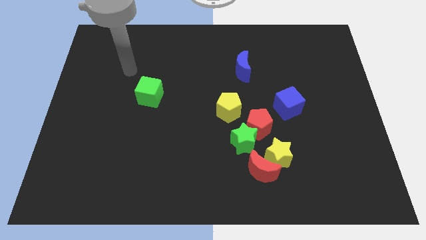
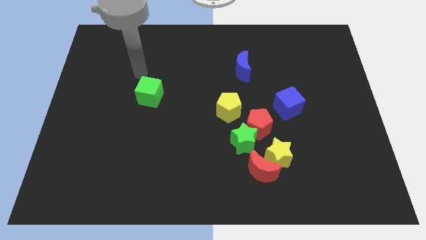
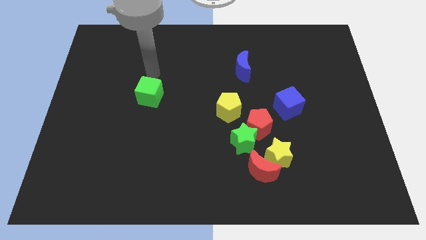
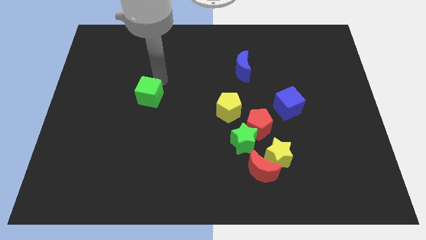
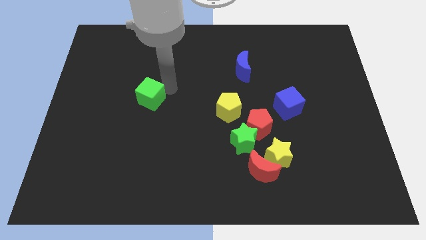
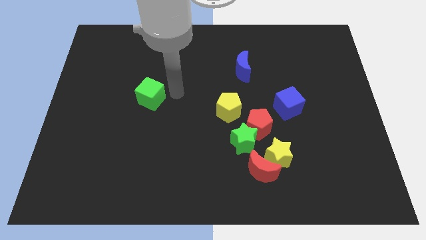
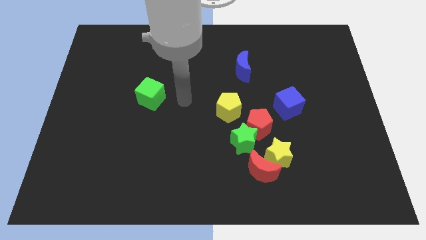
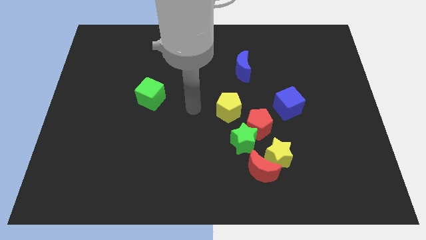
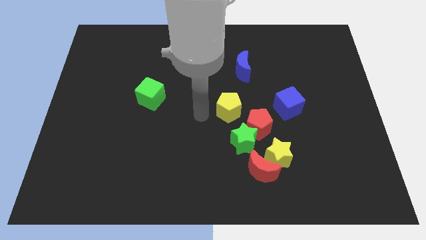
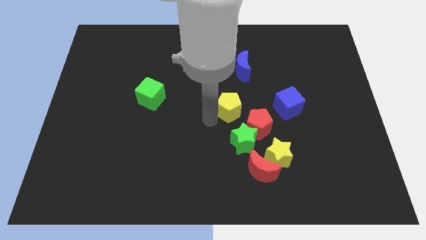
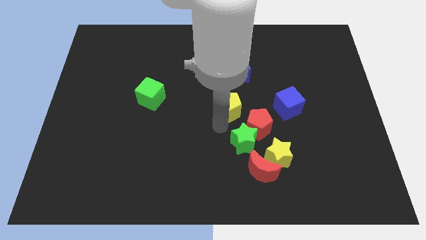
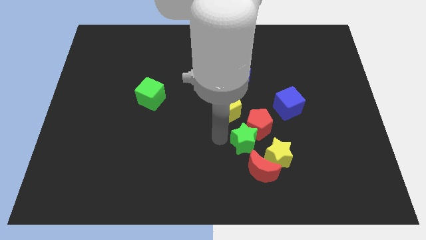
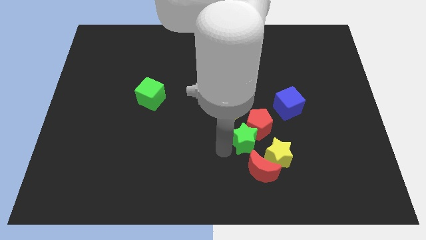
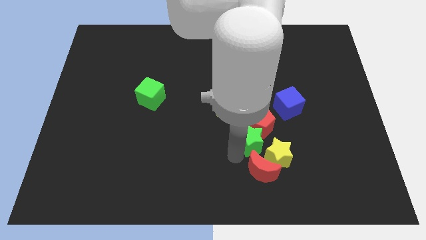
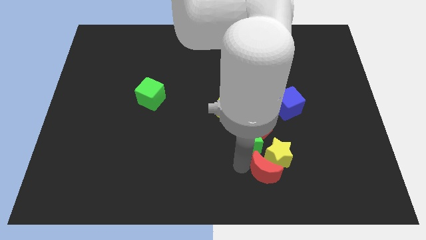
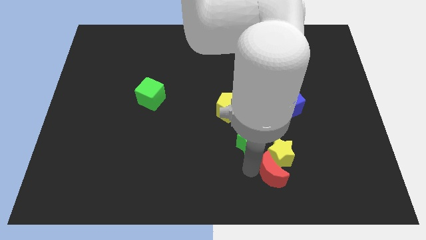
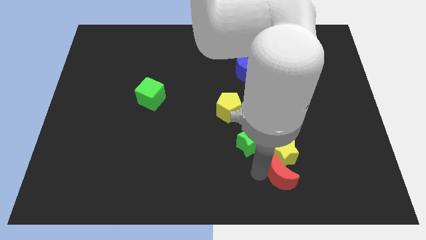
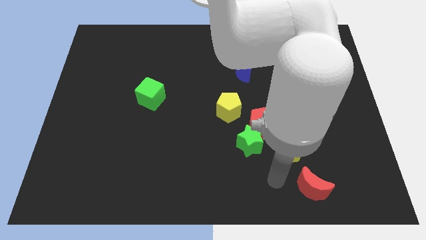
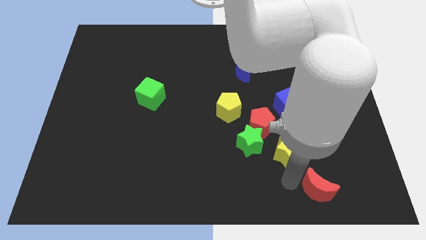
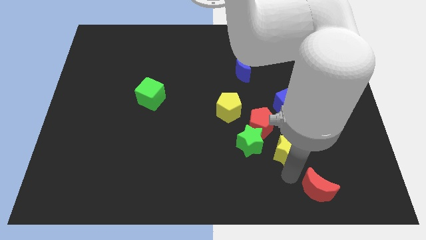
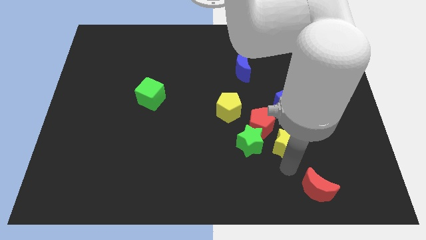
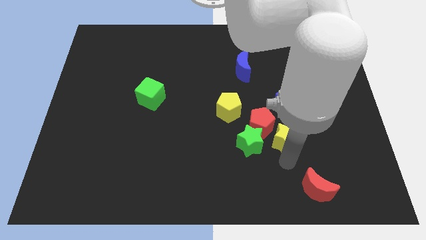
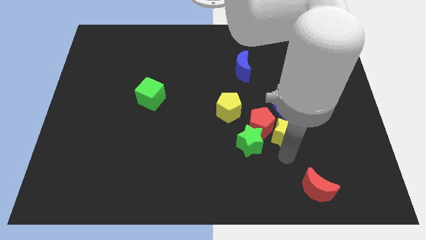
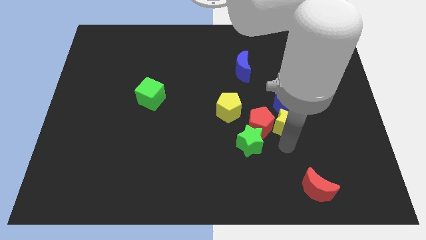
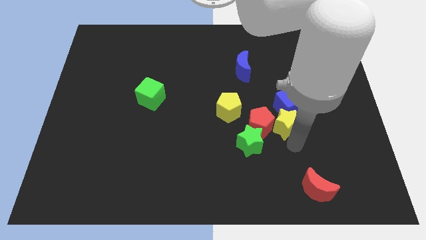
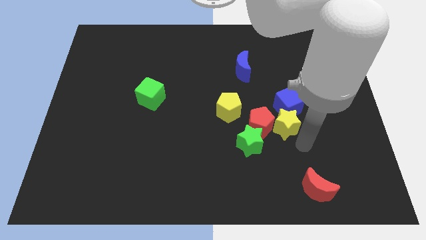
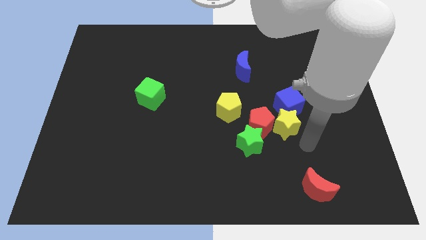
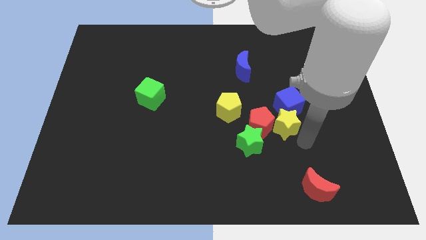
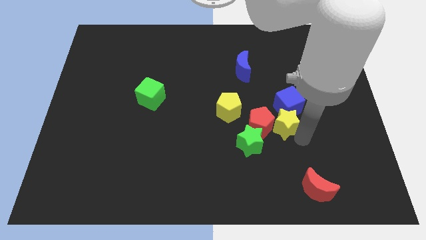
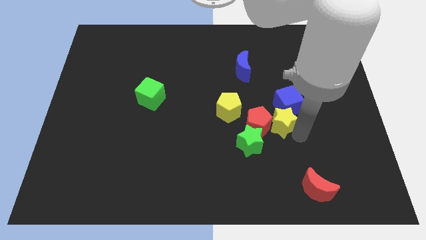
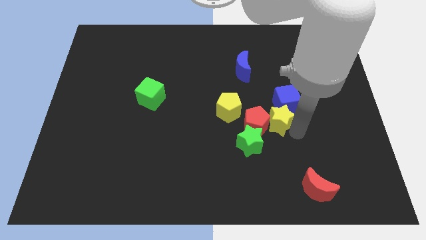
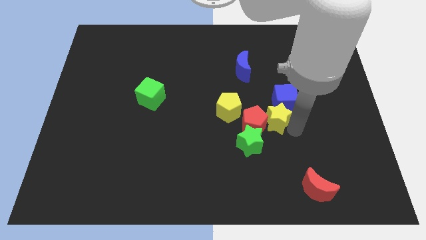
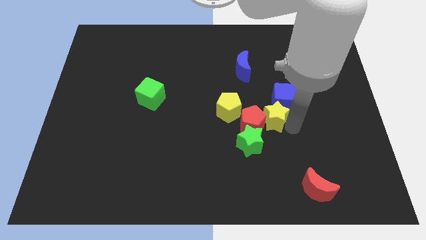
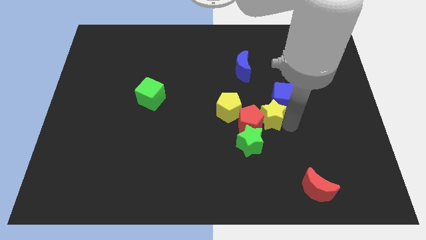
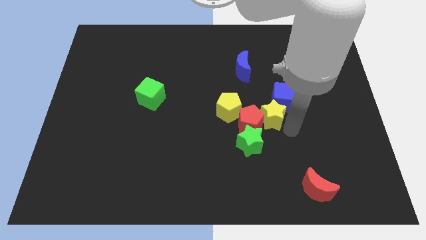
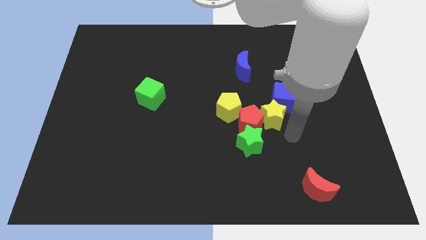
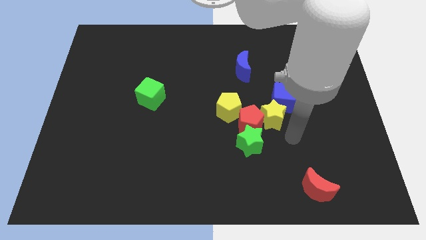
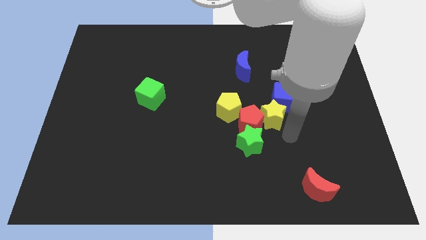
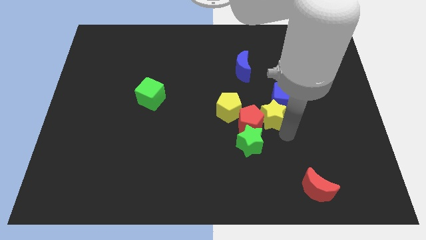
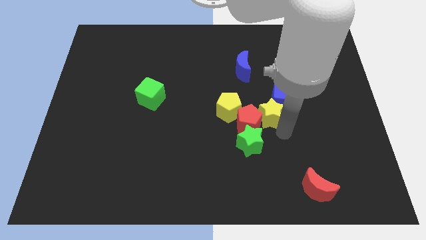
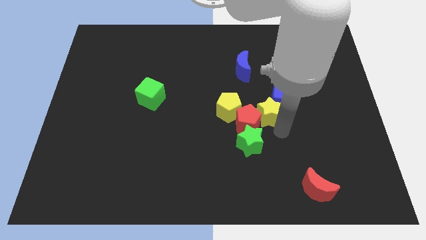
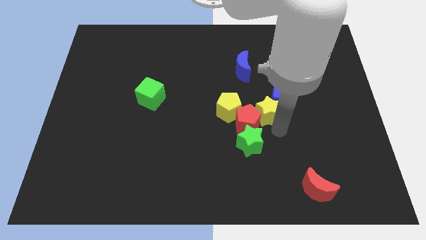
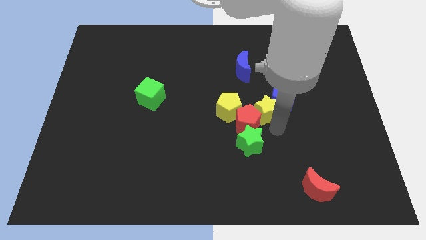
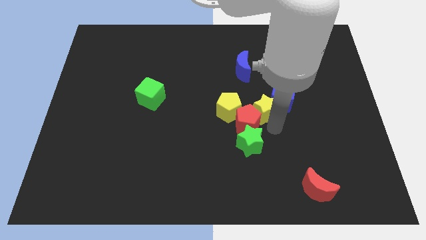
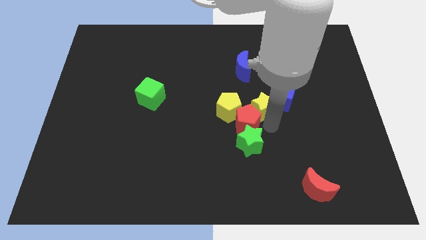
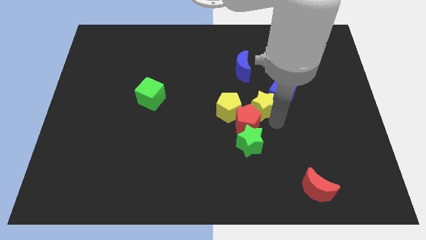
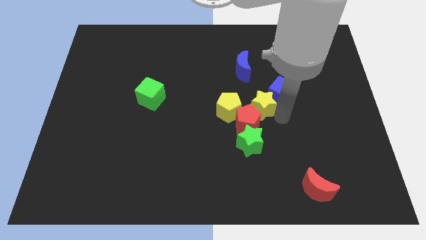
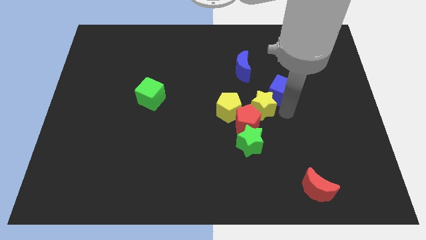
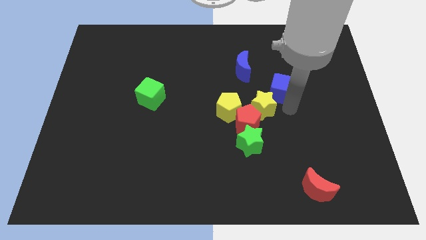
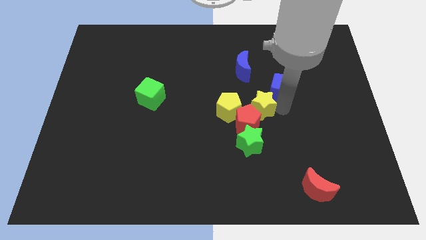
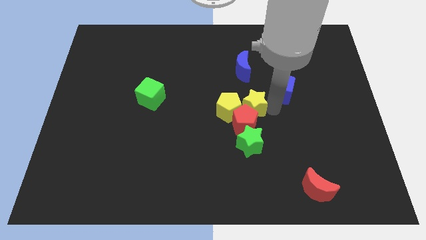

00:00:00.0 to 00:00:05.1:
slide the yellow star close to the yellow pentagon

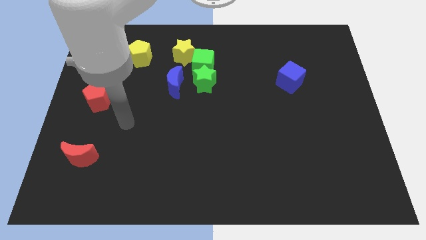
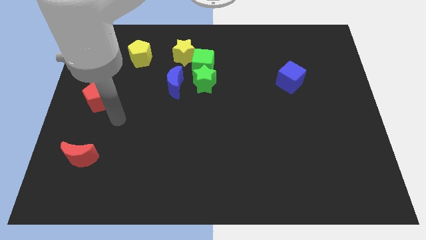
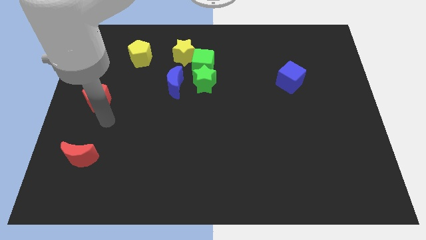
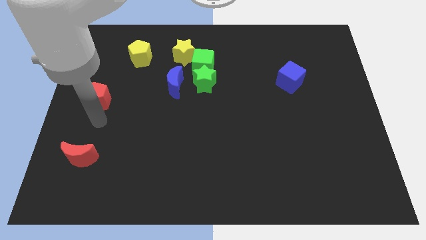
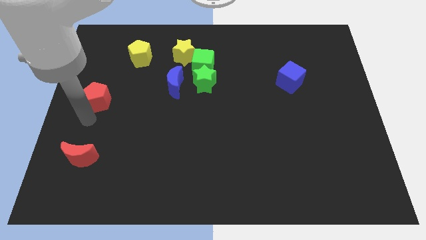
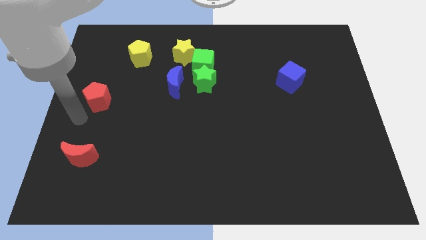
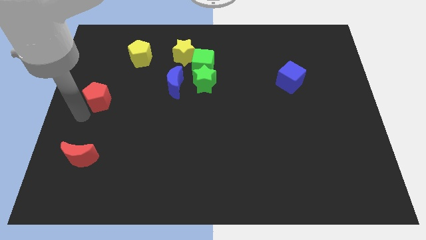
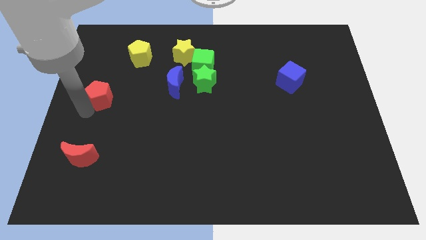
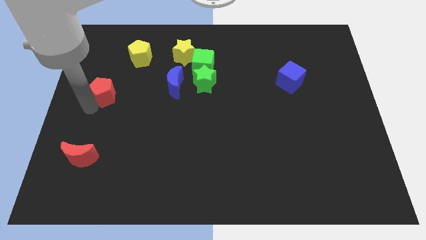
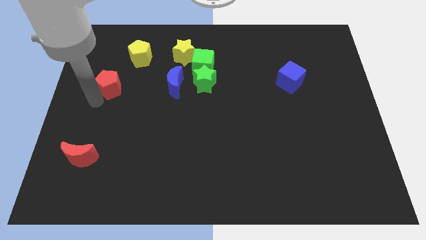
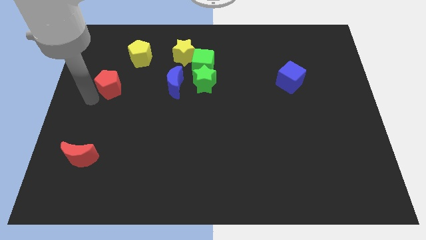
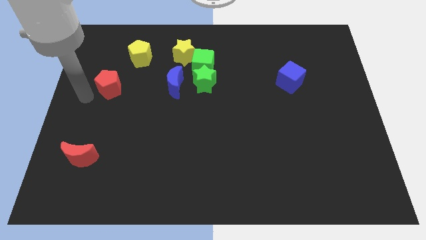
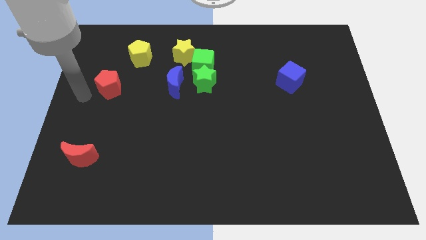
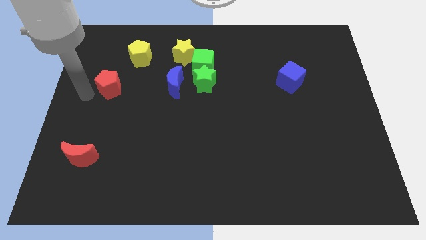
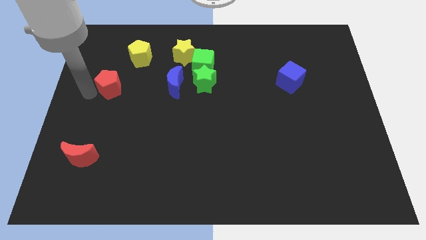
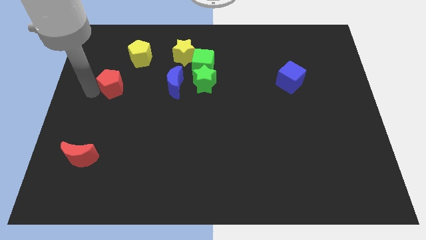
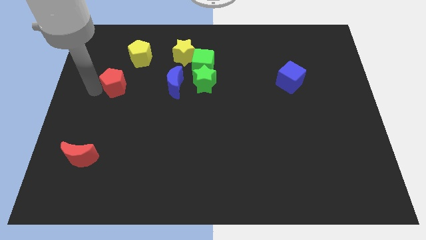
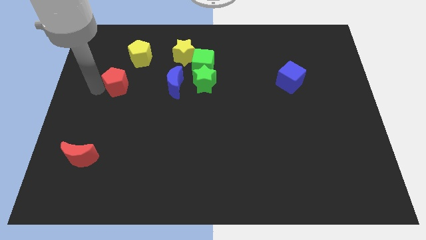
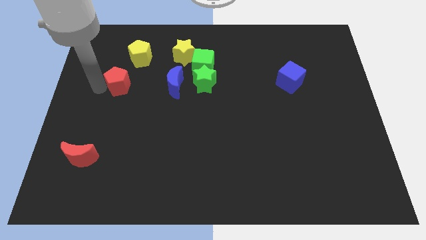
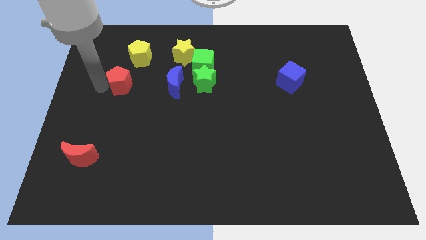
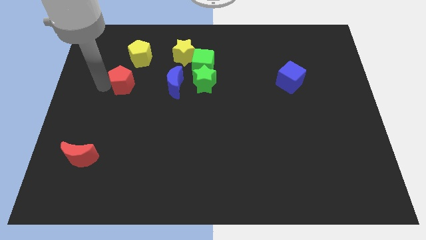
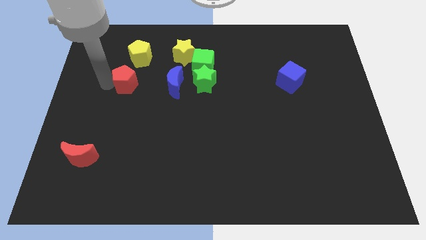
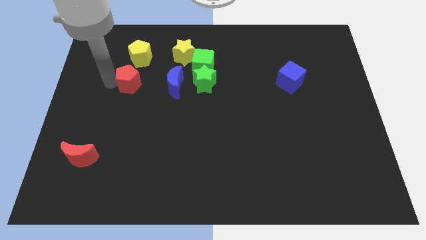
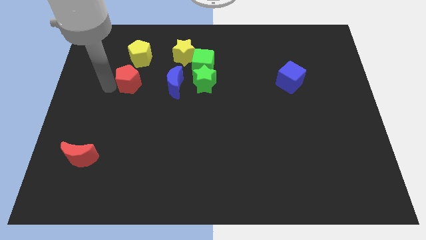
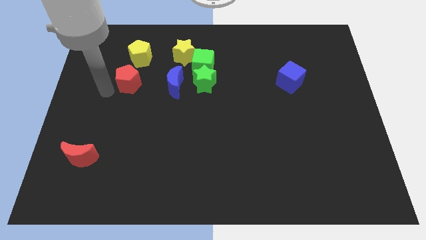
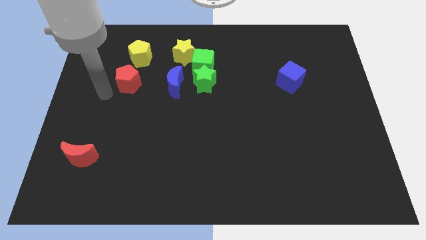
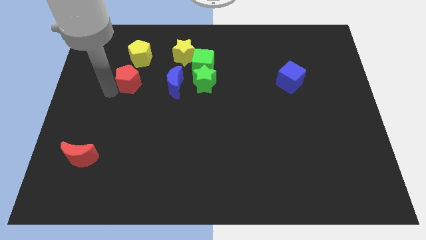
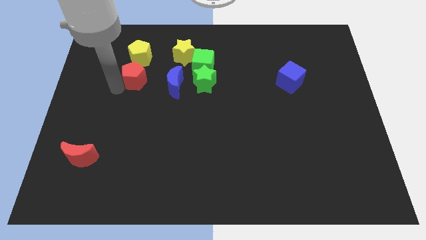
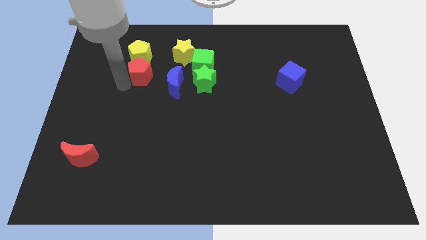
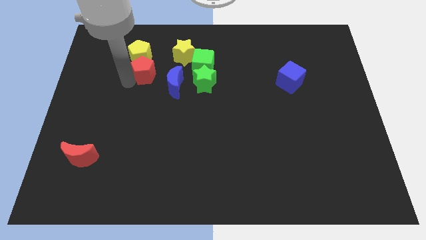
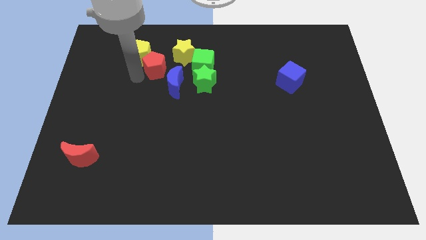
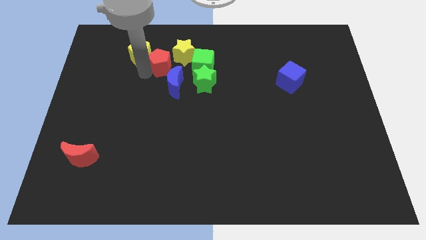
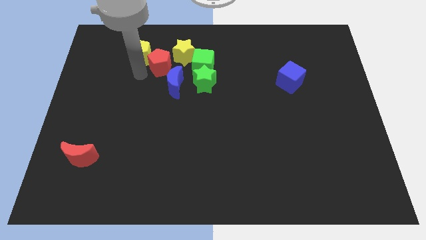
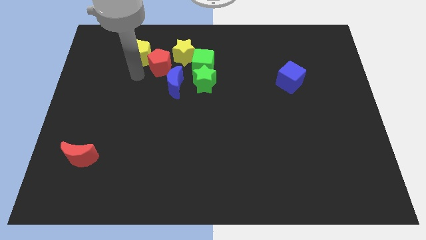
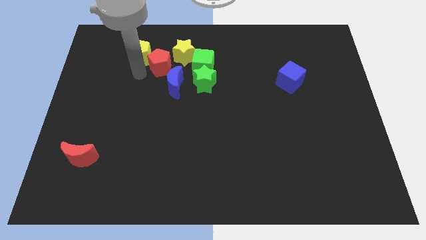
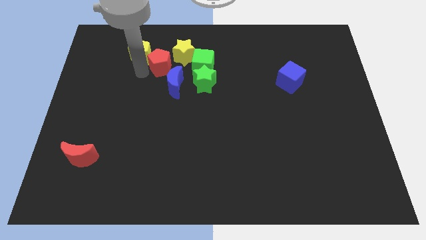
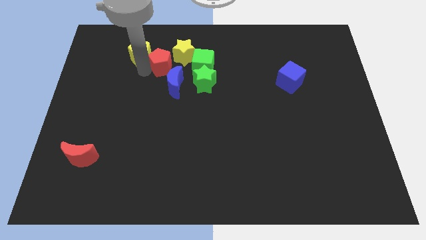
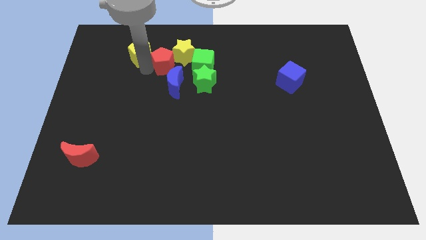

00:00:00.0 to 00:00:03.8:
push the red pentagon towards the yellow star
